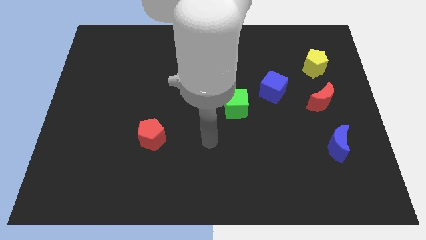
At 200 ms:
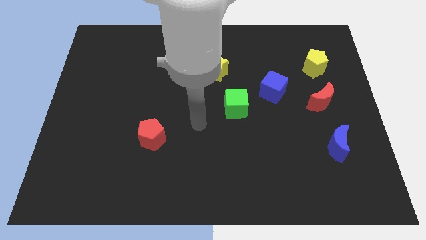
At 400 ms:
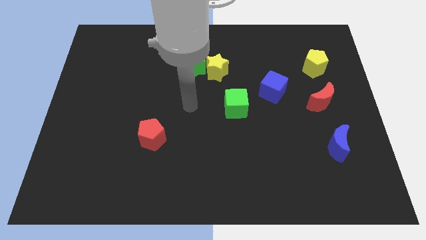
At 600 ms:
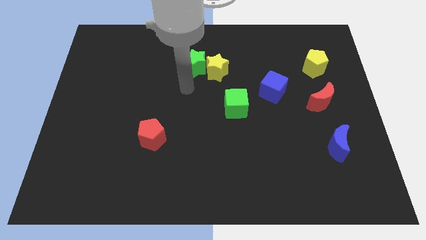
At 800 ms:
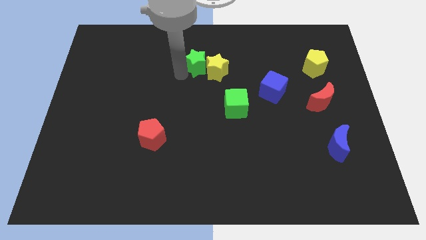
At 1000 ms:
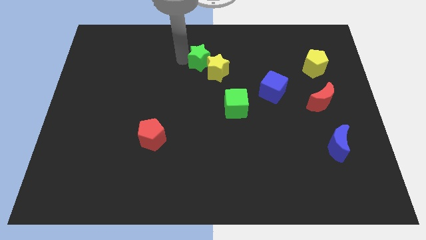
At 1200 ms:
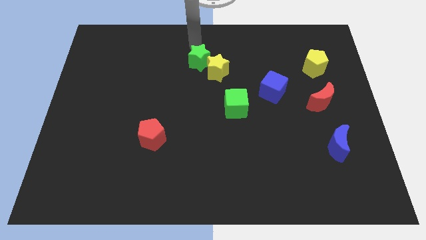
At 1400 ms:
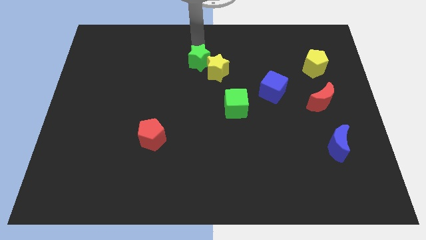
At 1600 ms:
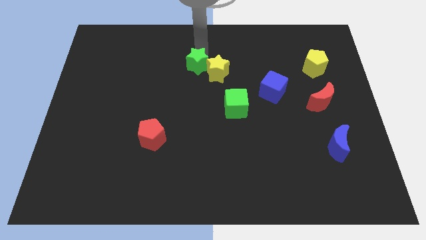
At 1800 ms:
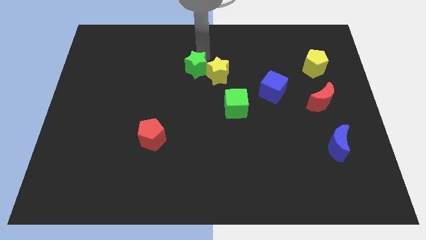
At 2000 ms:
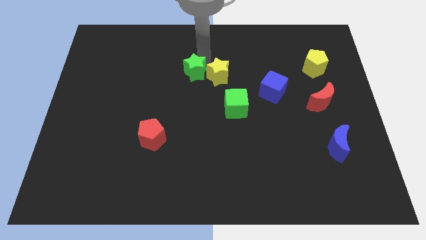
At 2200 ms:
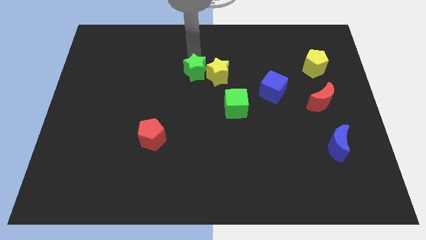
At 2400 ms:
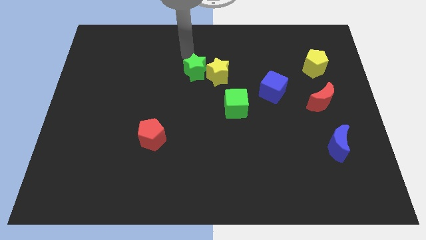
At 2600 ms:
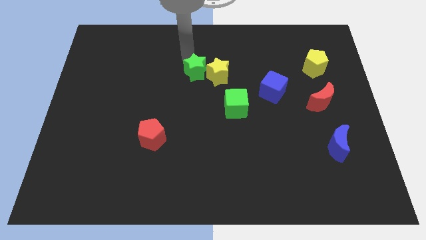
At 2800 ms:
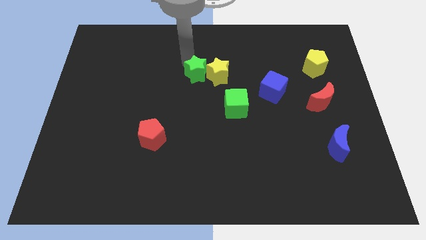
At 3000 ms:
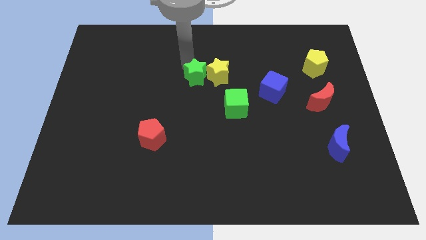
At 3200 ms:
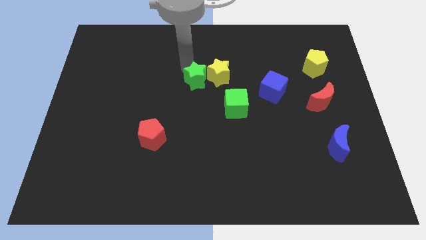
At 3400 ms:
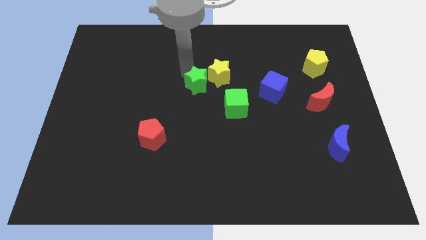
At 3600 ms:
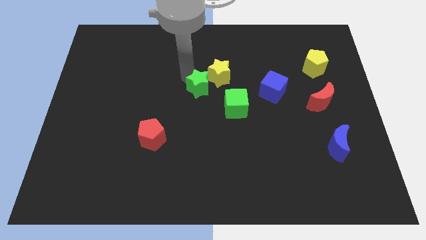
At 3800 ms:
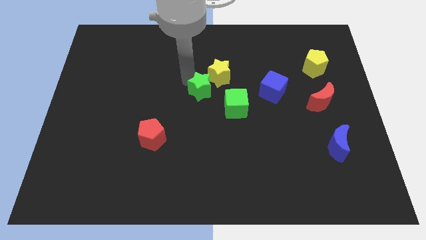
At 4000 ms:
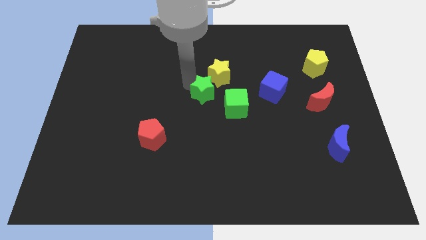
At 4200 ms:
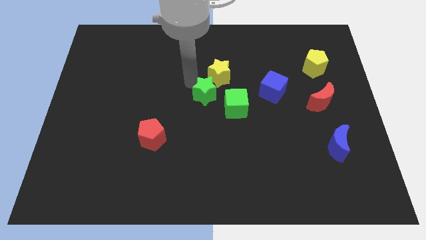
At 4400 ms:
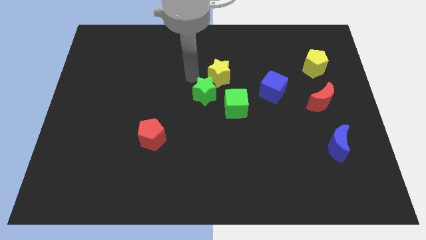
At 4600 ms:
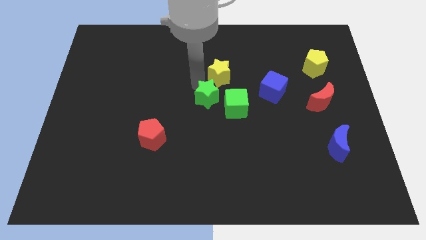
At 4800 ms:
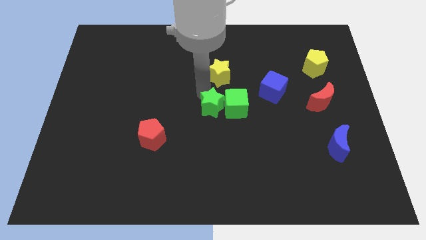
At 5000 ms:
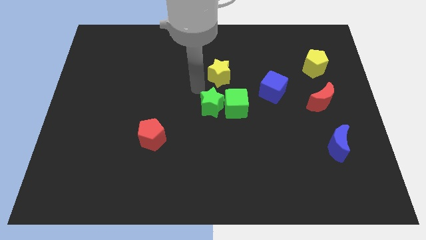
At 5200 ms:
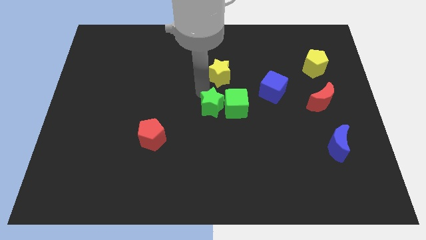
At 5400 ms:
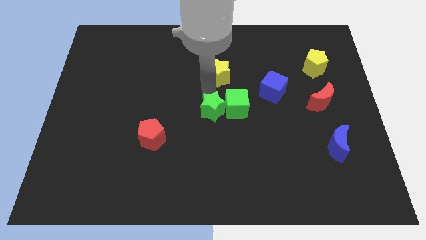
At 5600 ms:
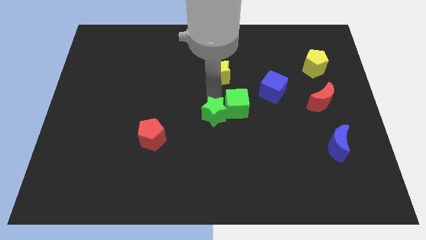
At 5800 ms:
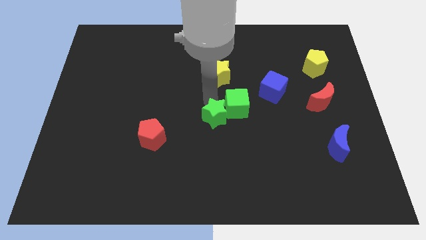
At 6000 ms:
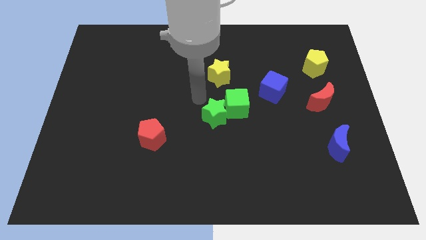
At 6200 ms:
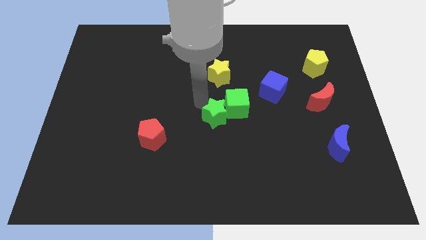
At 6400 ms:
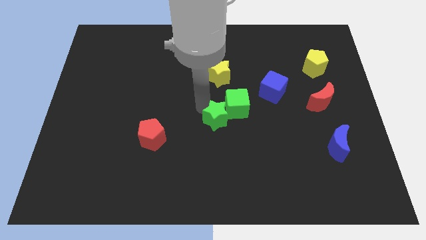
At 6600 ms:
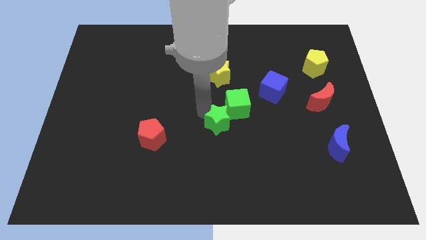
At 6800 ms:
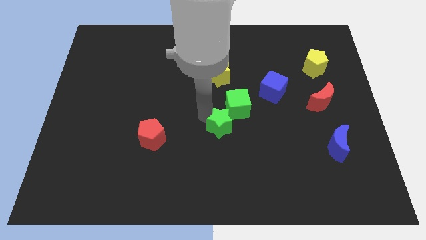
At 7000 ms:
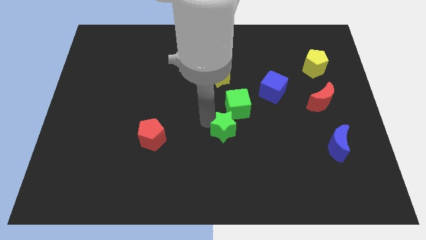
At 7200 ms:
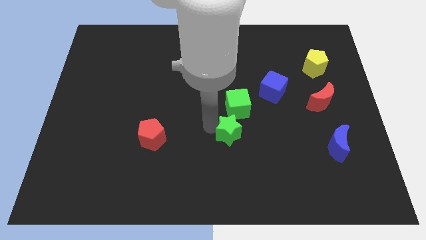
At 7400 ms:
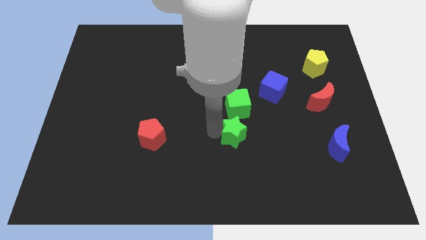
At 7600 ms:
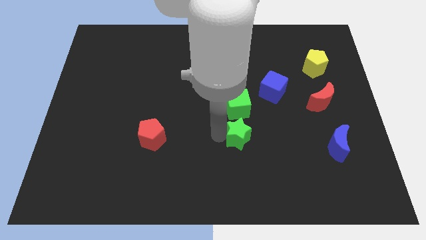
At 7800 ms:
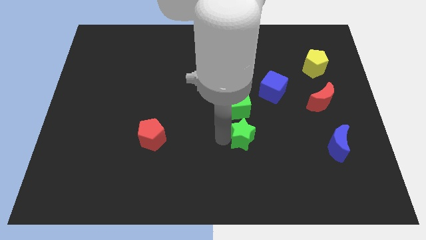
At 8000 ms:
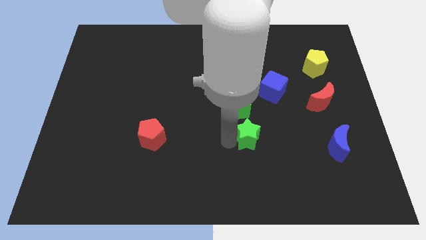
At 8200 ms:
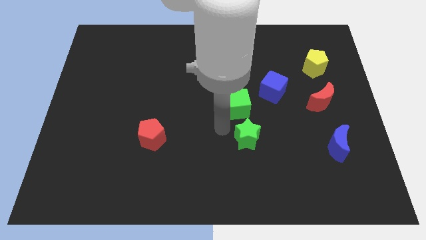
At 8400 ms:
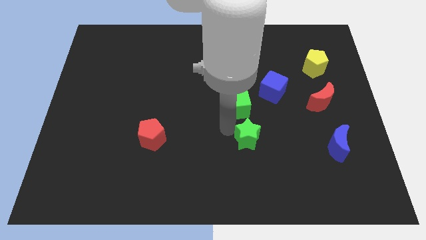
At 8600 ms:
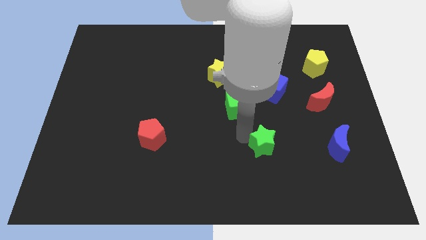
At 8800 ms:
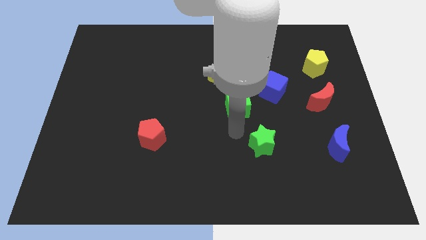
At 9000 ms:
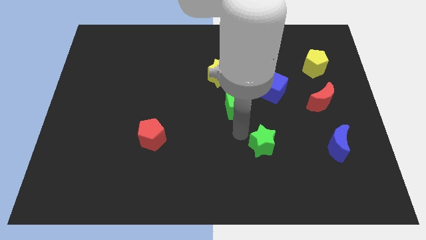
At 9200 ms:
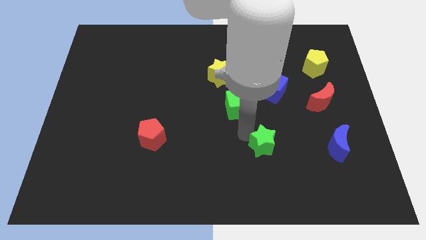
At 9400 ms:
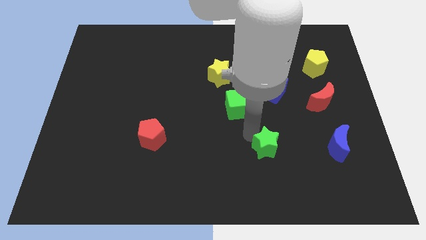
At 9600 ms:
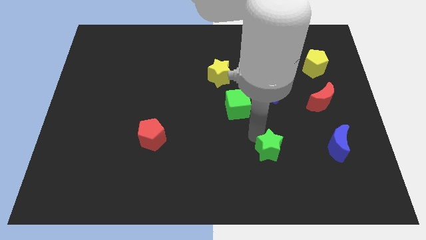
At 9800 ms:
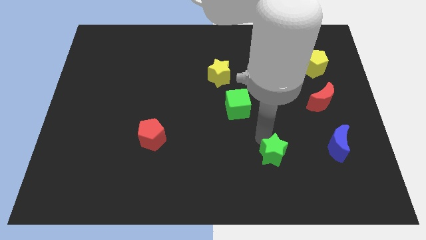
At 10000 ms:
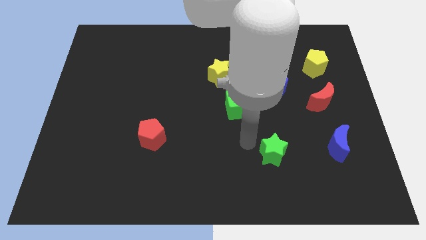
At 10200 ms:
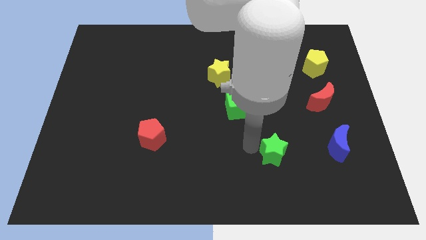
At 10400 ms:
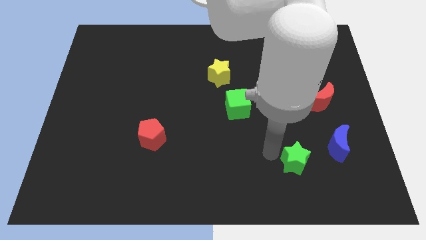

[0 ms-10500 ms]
push the green star to the bottom left side of the blue moon

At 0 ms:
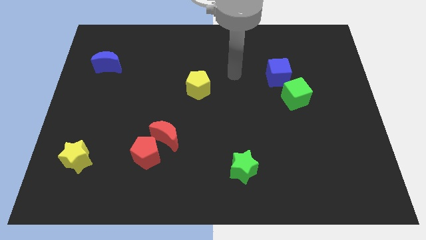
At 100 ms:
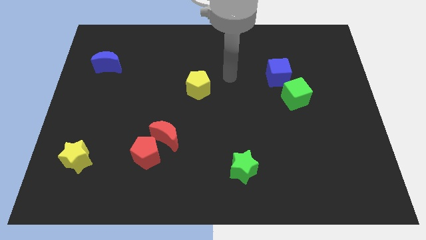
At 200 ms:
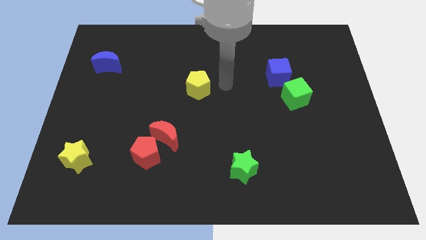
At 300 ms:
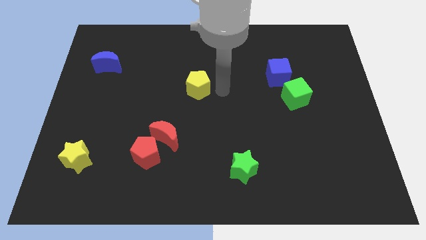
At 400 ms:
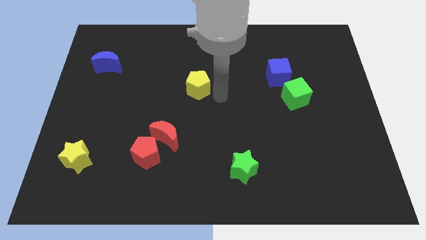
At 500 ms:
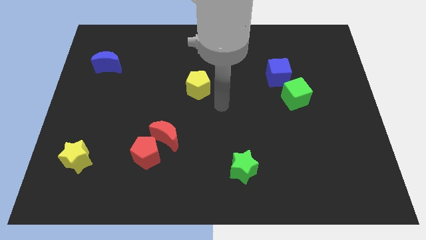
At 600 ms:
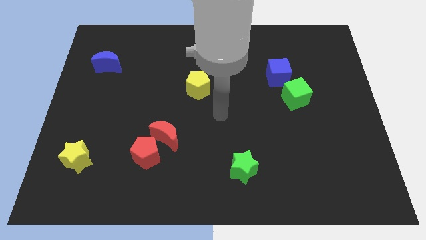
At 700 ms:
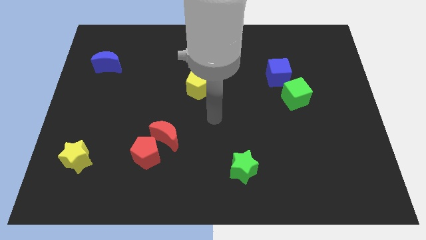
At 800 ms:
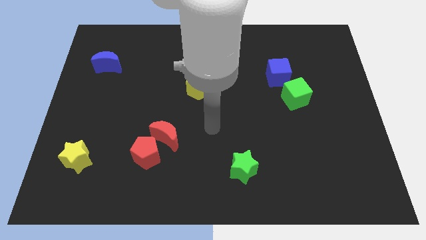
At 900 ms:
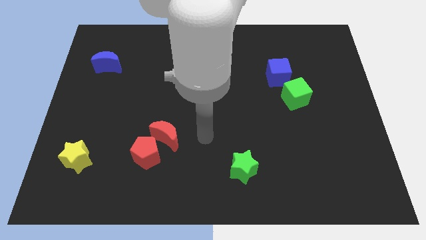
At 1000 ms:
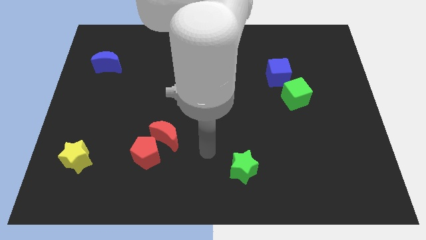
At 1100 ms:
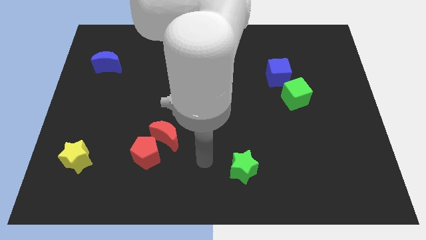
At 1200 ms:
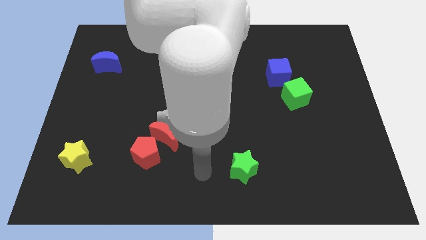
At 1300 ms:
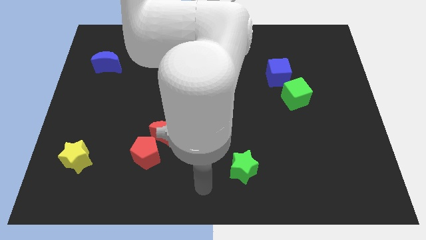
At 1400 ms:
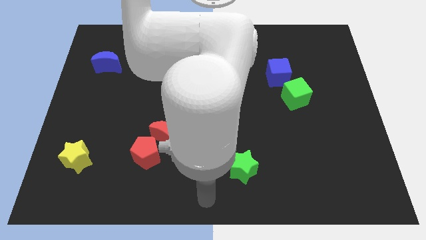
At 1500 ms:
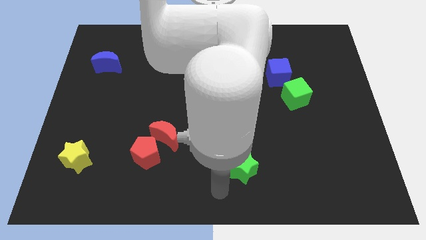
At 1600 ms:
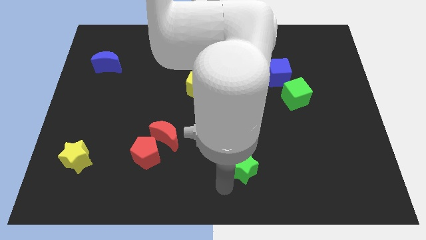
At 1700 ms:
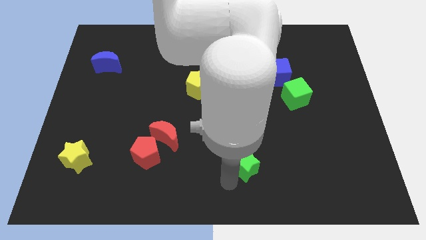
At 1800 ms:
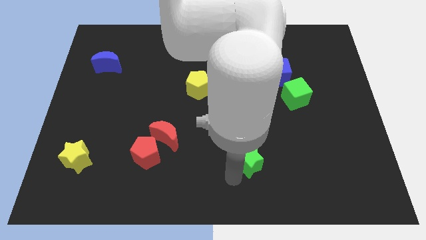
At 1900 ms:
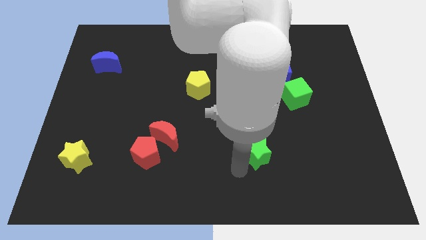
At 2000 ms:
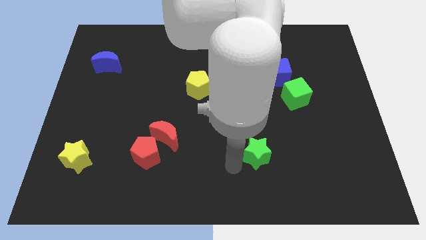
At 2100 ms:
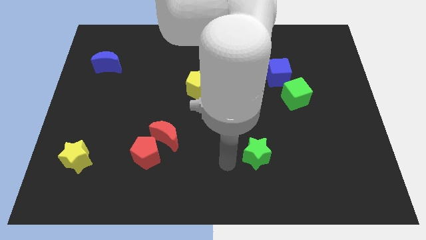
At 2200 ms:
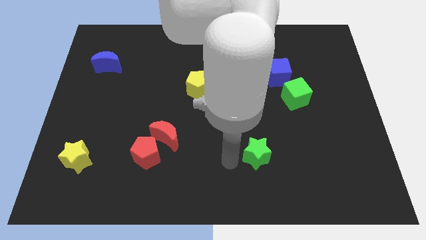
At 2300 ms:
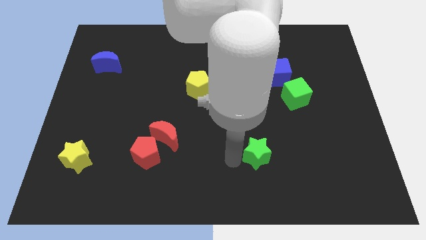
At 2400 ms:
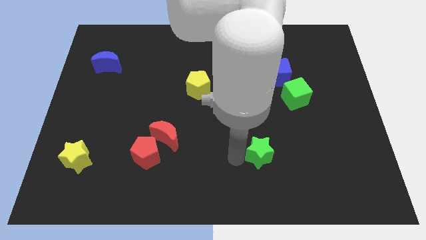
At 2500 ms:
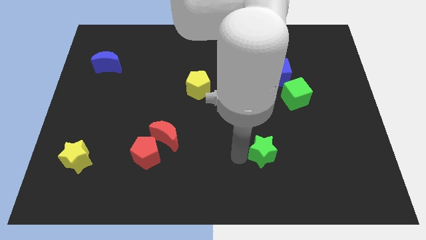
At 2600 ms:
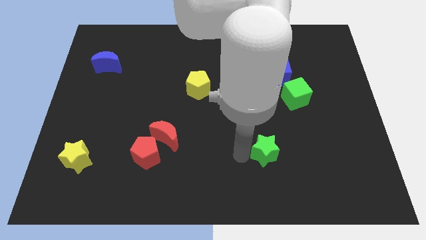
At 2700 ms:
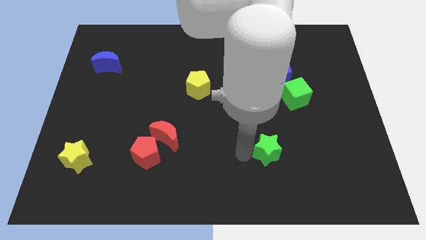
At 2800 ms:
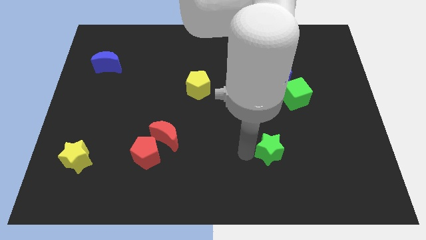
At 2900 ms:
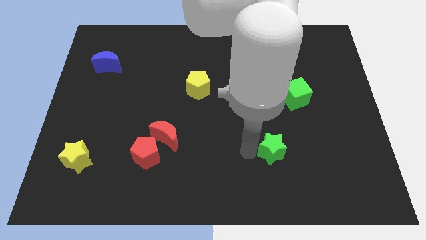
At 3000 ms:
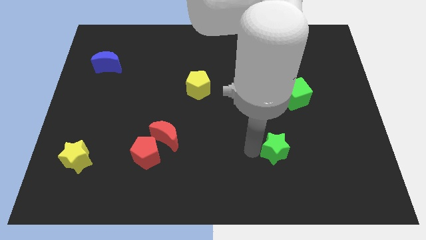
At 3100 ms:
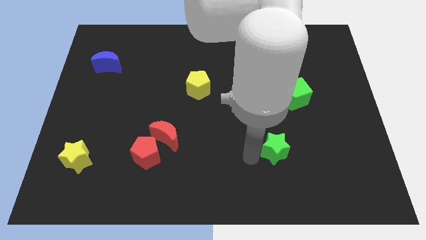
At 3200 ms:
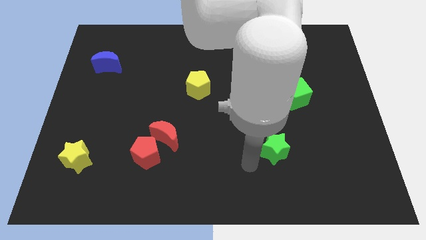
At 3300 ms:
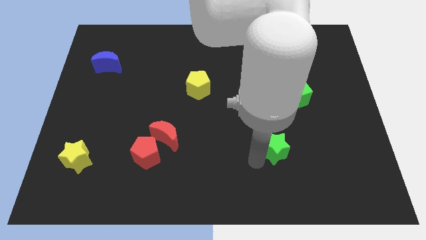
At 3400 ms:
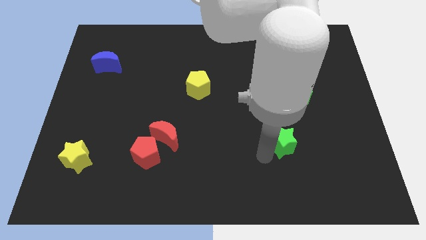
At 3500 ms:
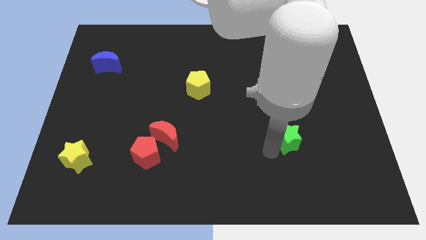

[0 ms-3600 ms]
put the green star to the bottom side of the green cube
